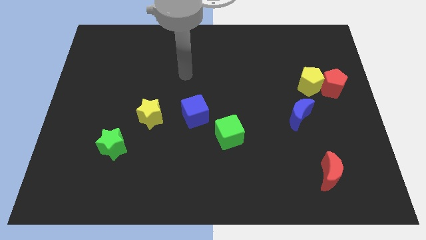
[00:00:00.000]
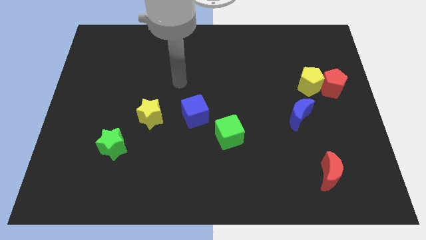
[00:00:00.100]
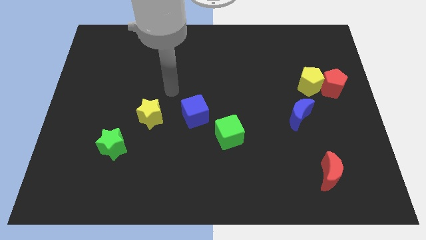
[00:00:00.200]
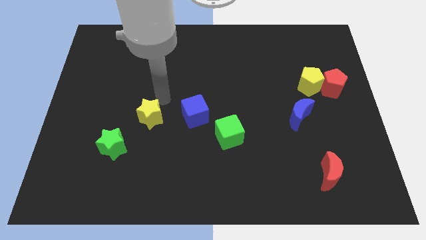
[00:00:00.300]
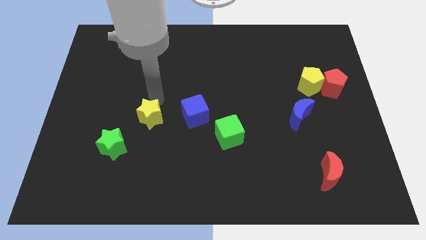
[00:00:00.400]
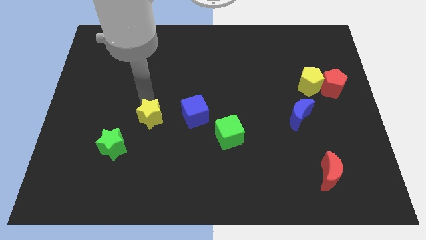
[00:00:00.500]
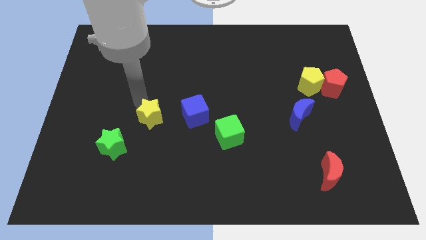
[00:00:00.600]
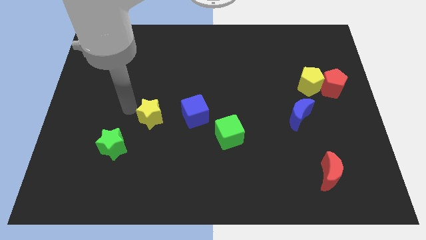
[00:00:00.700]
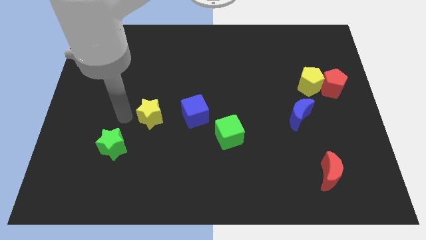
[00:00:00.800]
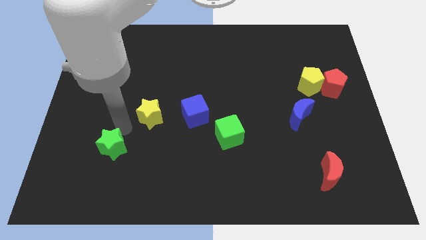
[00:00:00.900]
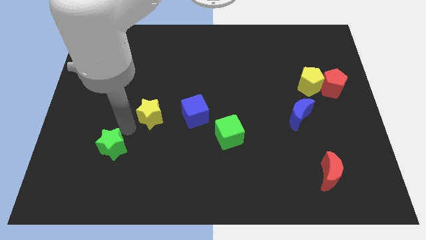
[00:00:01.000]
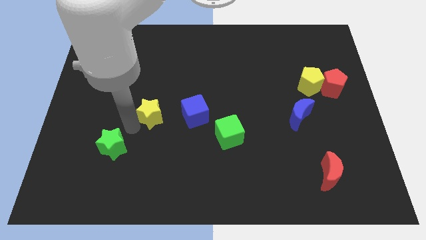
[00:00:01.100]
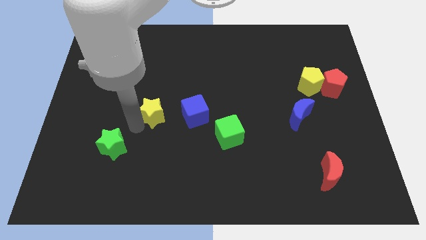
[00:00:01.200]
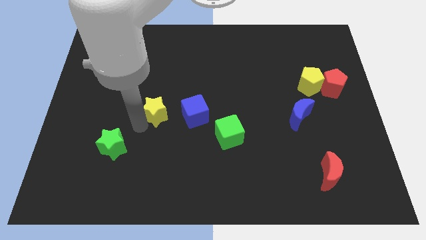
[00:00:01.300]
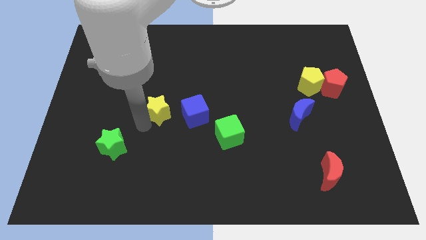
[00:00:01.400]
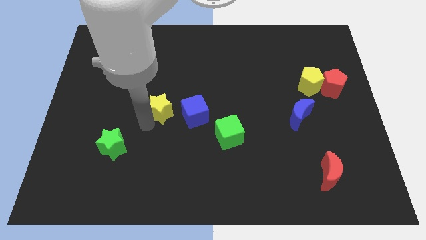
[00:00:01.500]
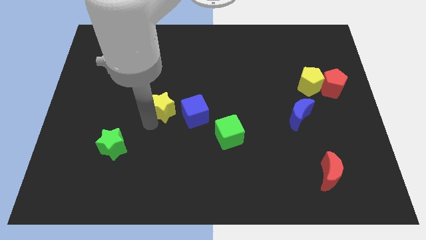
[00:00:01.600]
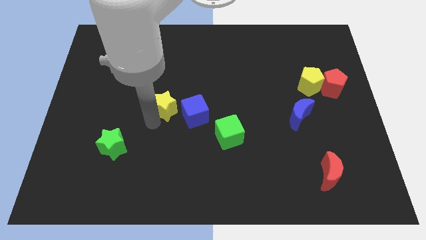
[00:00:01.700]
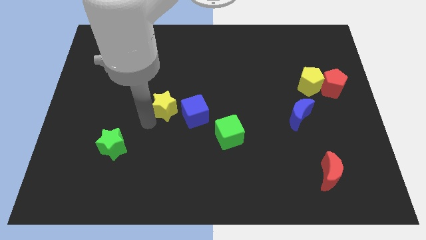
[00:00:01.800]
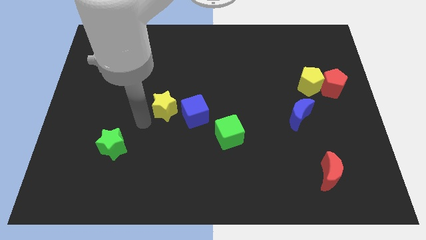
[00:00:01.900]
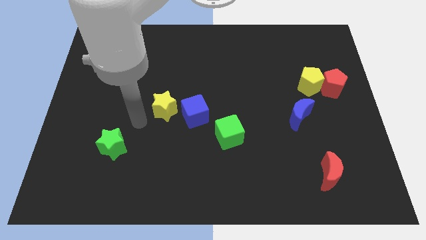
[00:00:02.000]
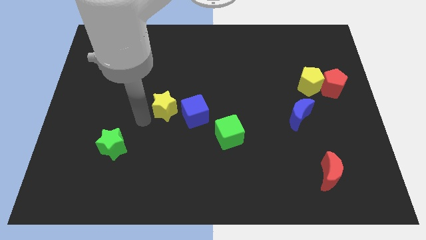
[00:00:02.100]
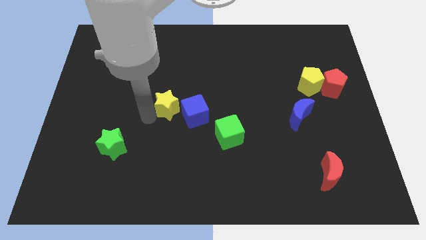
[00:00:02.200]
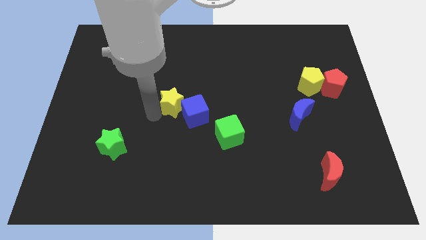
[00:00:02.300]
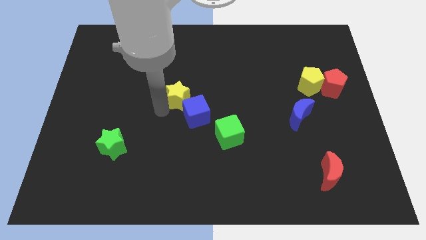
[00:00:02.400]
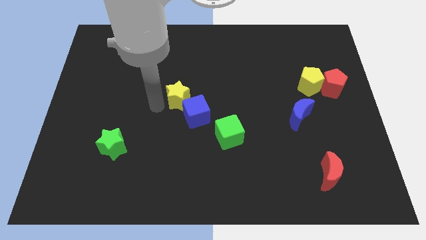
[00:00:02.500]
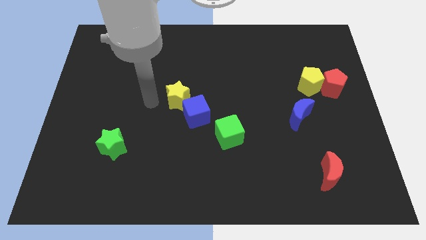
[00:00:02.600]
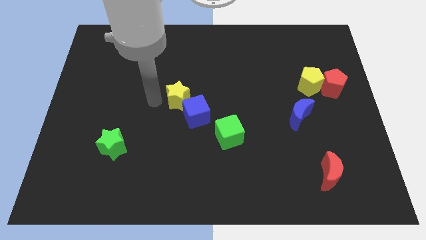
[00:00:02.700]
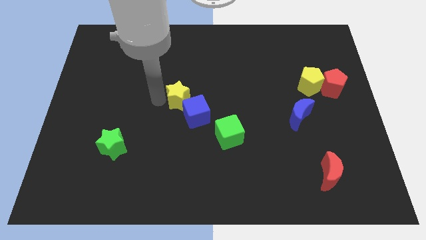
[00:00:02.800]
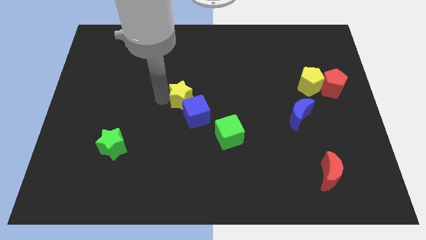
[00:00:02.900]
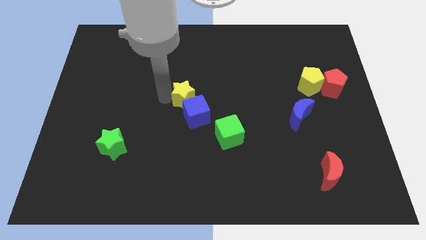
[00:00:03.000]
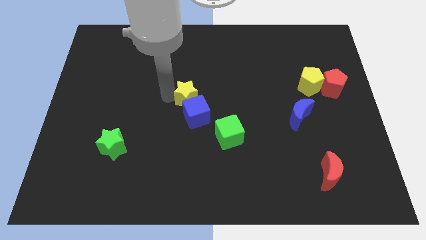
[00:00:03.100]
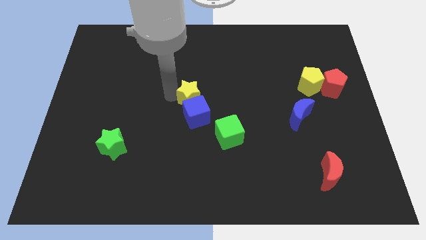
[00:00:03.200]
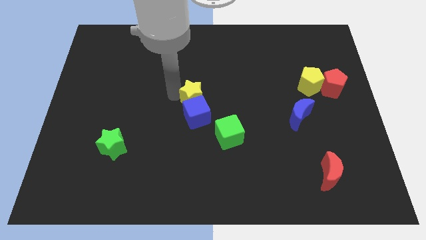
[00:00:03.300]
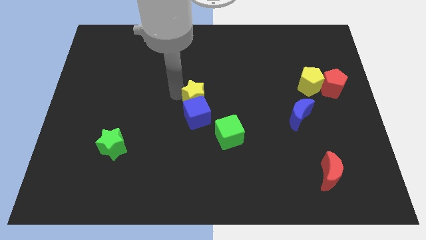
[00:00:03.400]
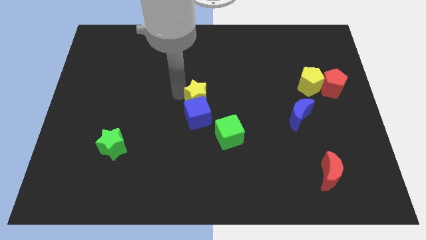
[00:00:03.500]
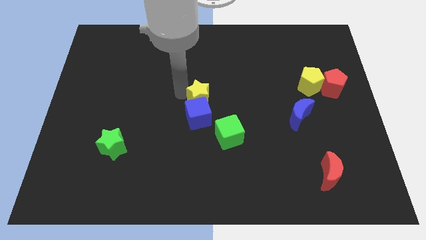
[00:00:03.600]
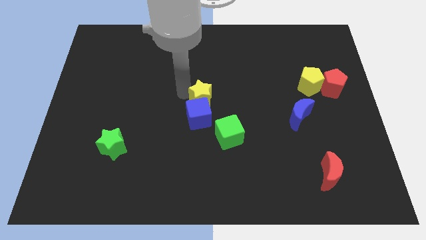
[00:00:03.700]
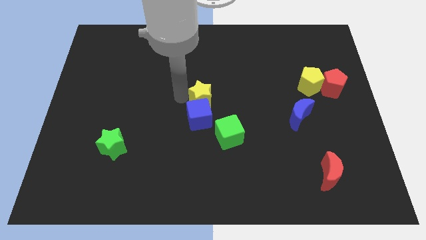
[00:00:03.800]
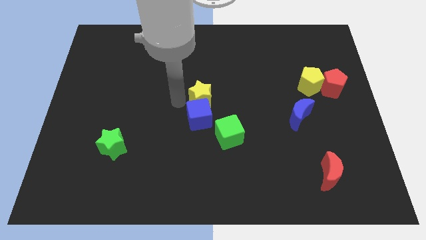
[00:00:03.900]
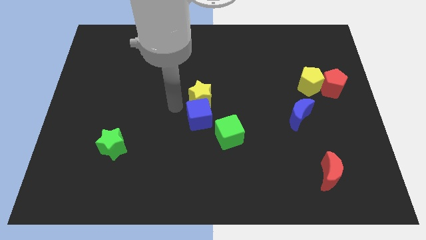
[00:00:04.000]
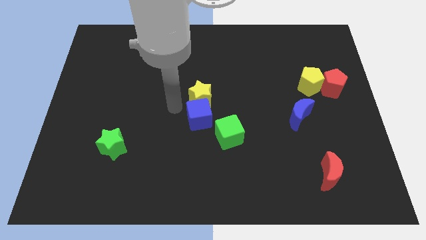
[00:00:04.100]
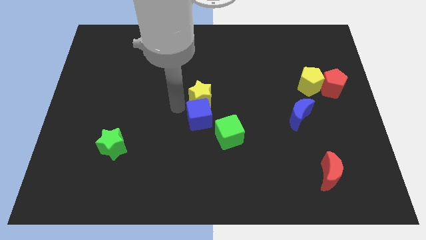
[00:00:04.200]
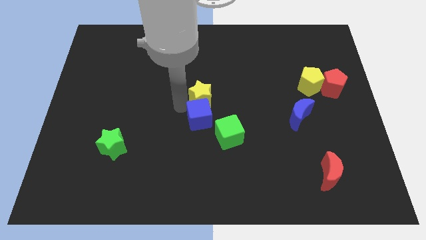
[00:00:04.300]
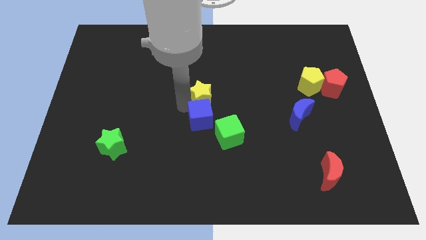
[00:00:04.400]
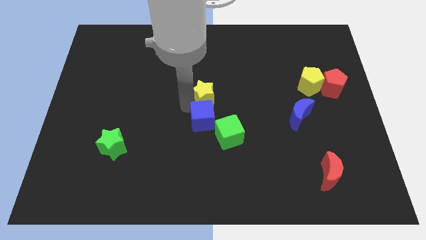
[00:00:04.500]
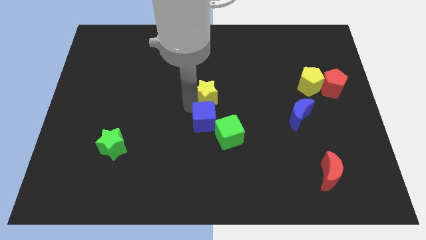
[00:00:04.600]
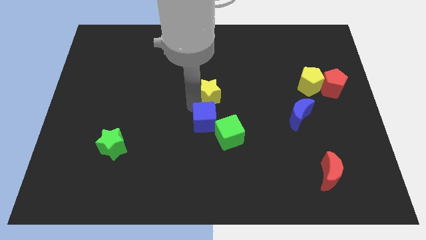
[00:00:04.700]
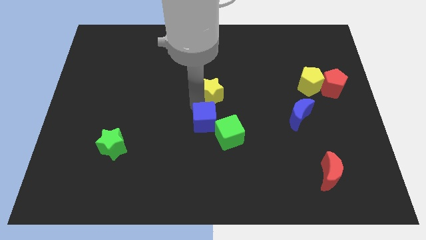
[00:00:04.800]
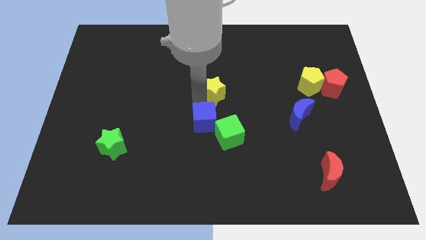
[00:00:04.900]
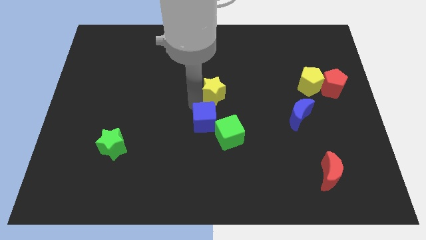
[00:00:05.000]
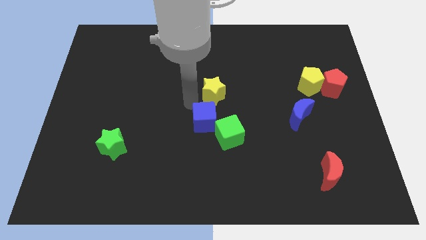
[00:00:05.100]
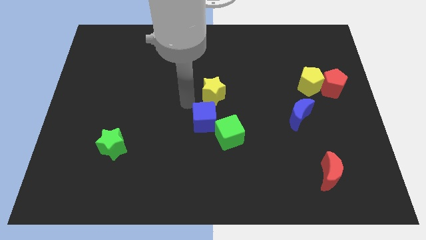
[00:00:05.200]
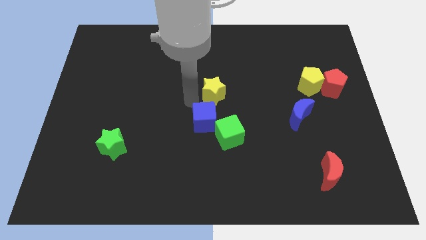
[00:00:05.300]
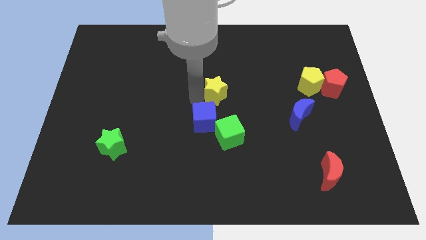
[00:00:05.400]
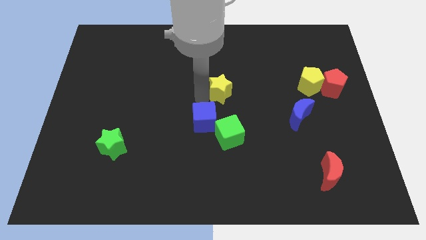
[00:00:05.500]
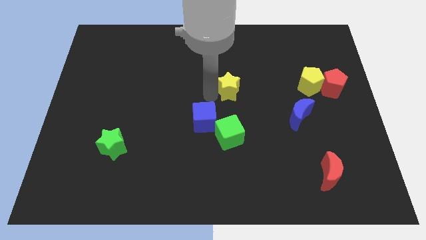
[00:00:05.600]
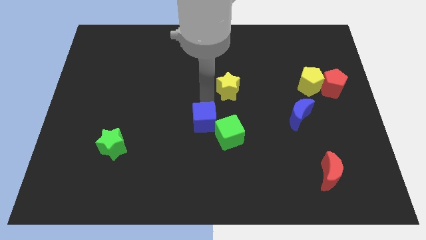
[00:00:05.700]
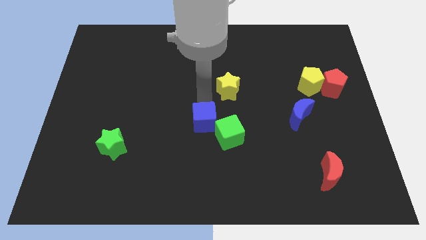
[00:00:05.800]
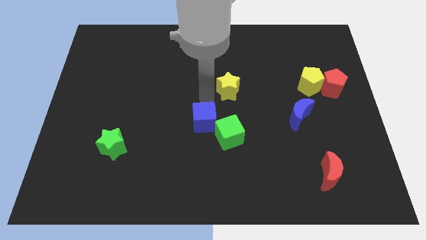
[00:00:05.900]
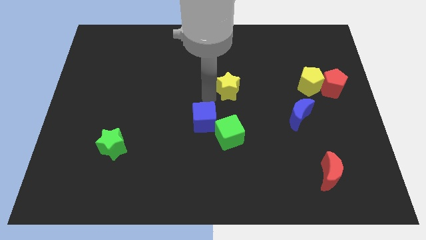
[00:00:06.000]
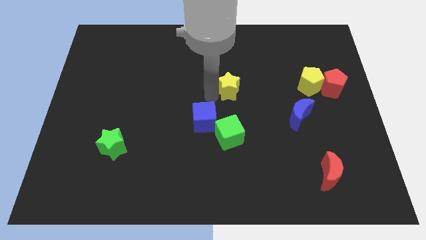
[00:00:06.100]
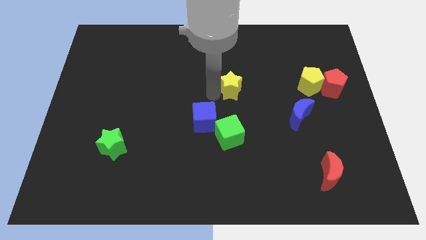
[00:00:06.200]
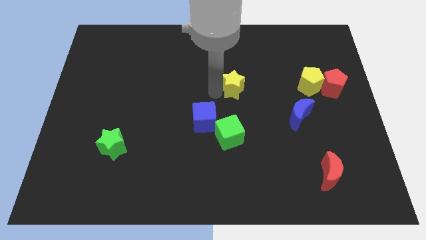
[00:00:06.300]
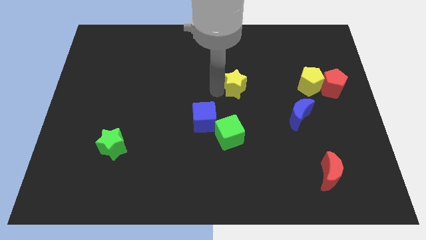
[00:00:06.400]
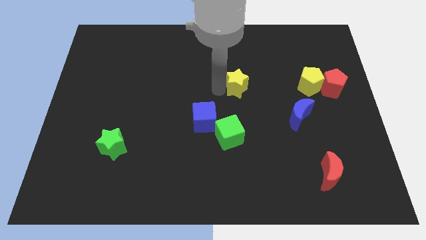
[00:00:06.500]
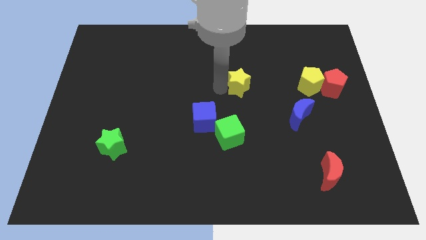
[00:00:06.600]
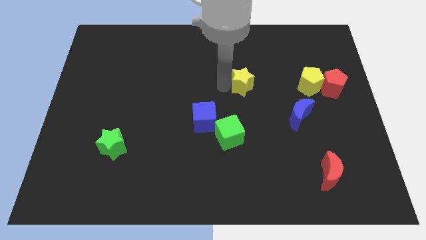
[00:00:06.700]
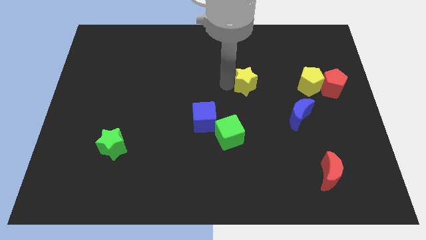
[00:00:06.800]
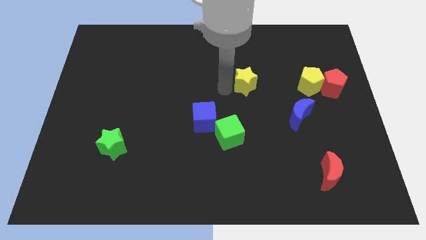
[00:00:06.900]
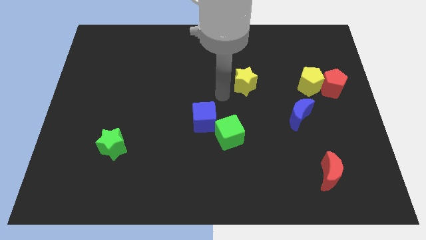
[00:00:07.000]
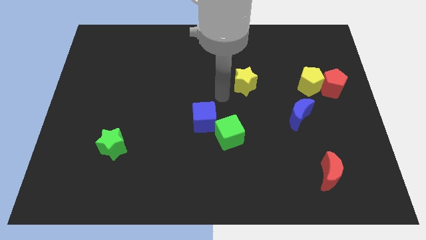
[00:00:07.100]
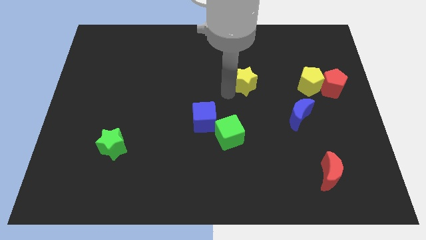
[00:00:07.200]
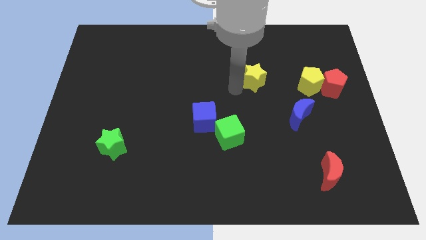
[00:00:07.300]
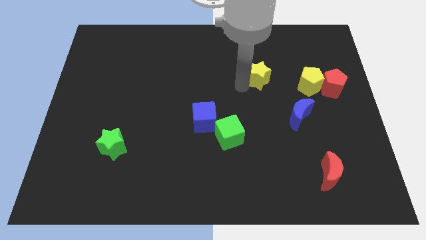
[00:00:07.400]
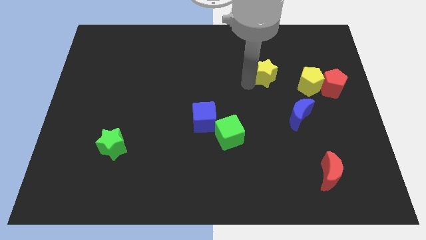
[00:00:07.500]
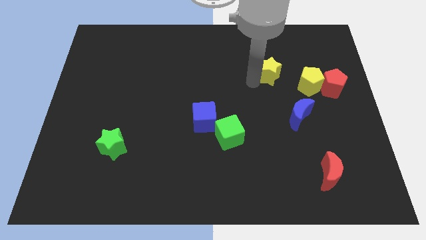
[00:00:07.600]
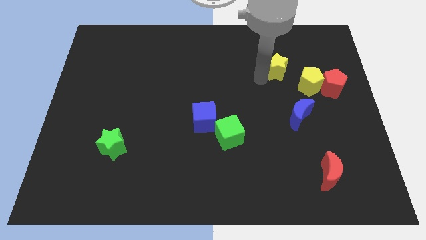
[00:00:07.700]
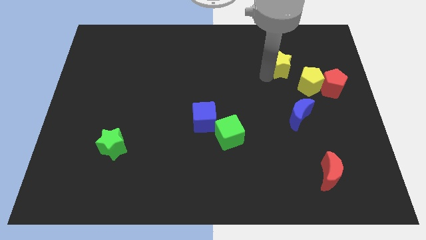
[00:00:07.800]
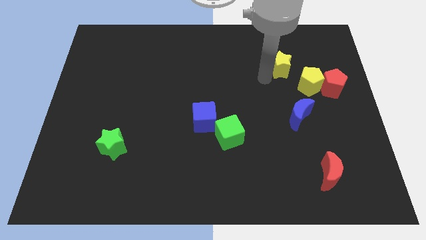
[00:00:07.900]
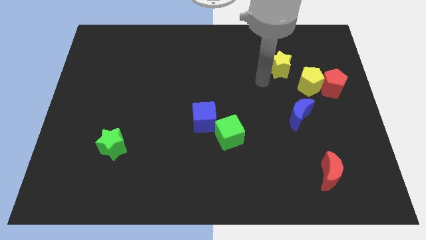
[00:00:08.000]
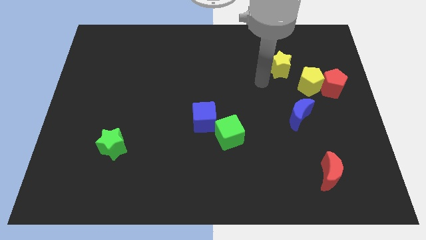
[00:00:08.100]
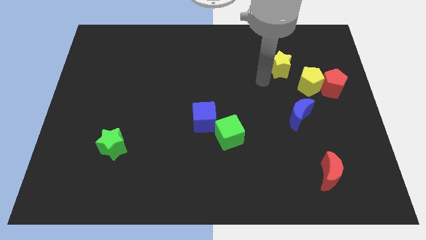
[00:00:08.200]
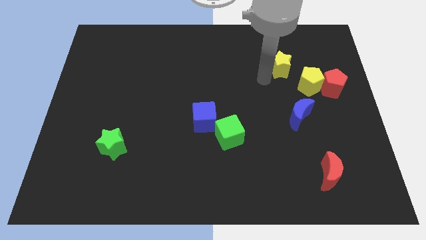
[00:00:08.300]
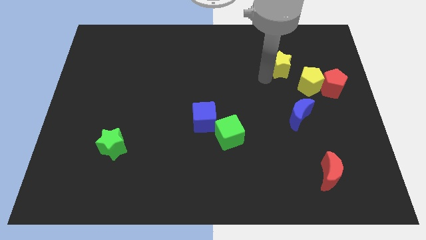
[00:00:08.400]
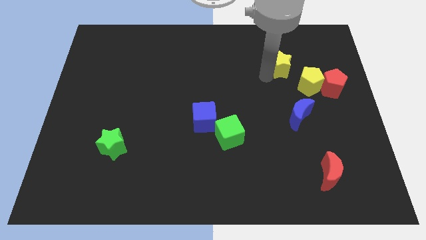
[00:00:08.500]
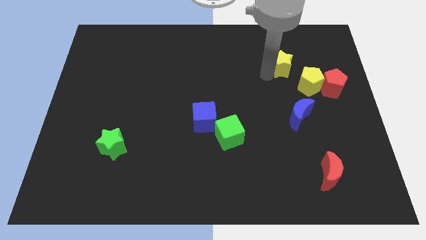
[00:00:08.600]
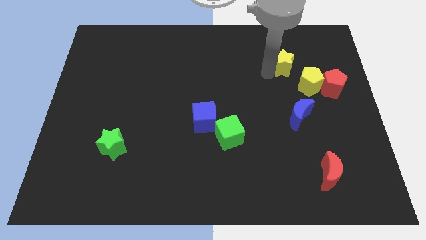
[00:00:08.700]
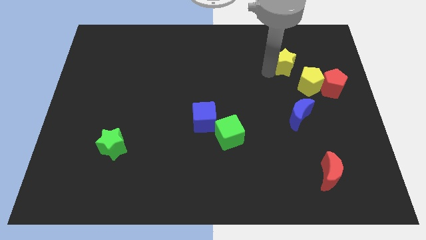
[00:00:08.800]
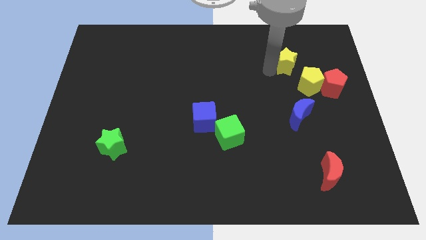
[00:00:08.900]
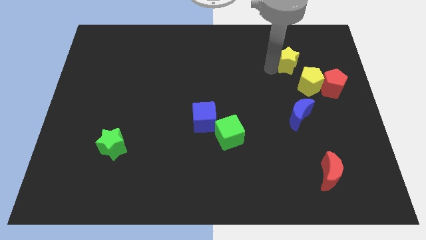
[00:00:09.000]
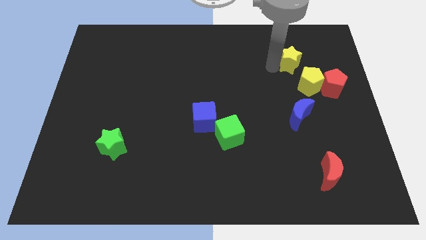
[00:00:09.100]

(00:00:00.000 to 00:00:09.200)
slide the yellow star to the top side of the yellow pentagon
